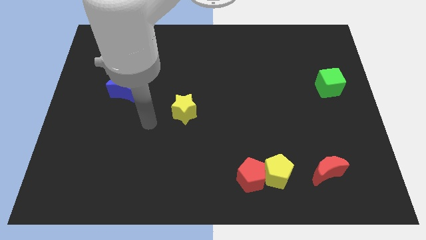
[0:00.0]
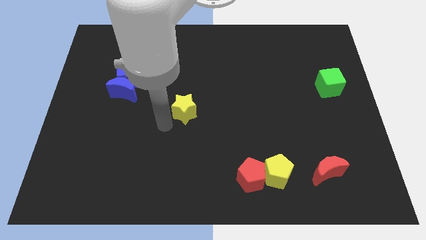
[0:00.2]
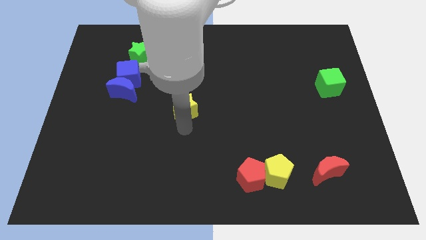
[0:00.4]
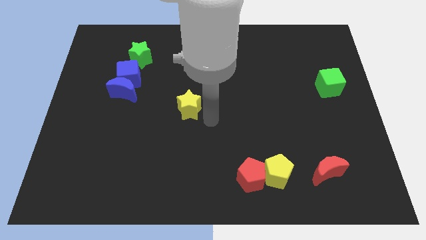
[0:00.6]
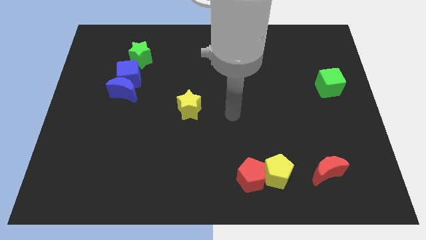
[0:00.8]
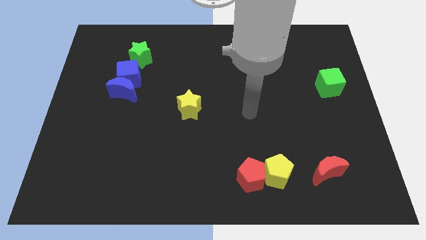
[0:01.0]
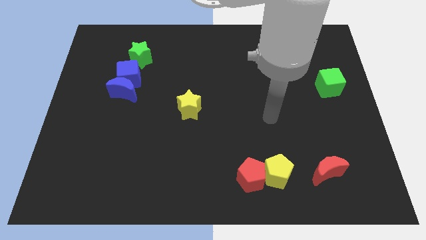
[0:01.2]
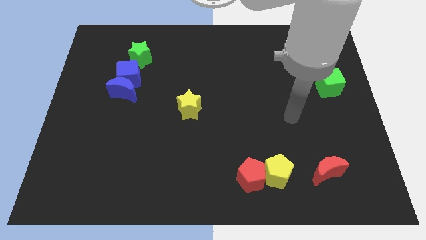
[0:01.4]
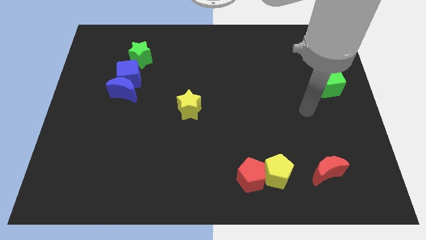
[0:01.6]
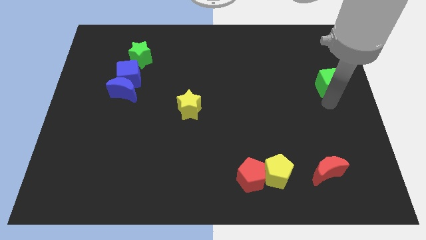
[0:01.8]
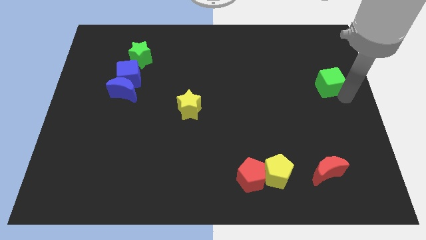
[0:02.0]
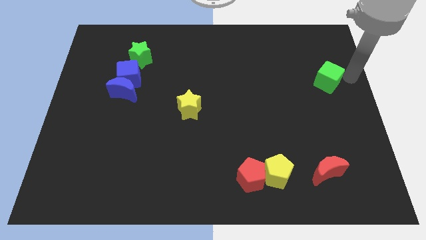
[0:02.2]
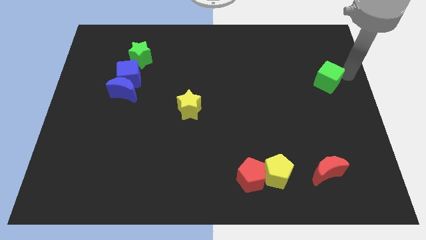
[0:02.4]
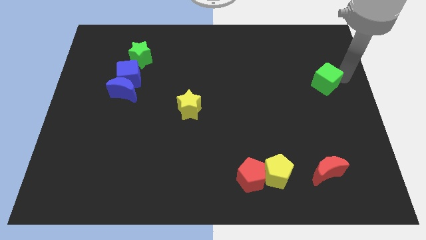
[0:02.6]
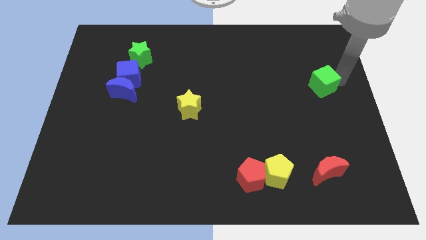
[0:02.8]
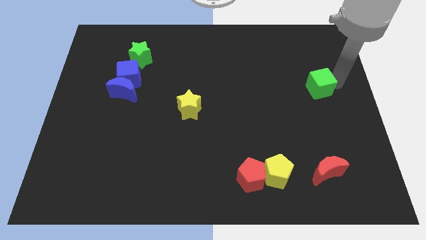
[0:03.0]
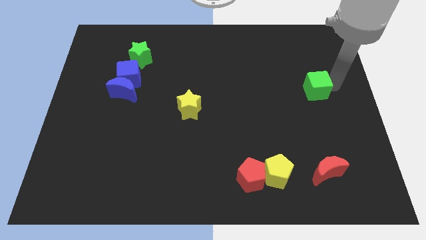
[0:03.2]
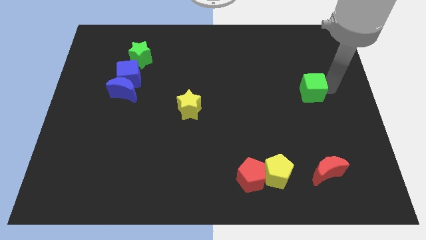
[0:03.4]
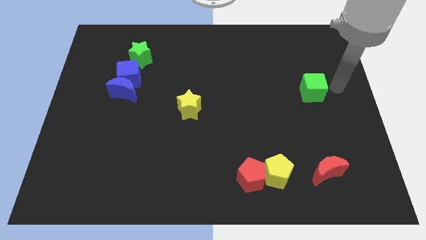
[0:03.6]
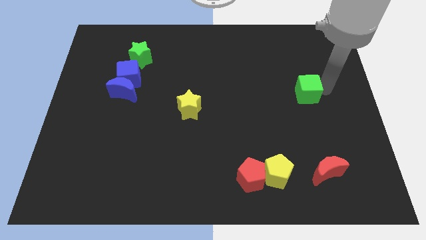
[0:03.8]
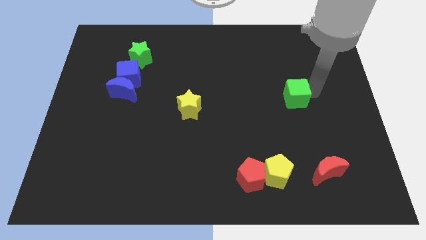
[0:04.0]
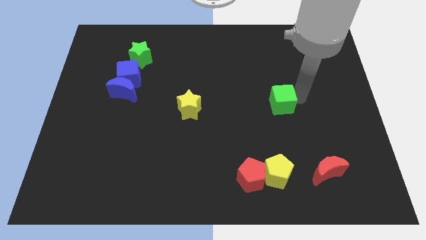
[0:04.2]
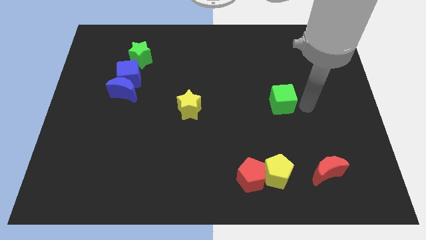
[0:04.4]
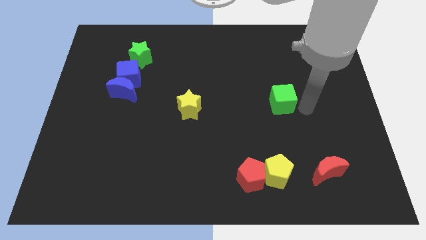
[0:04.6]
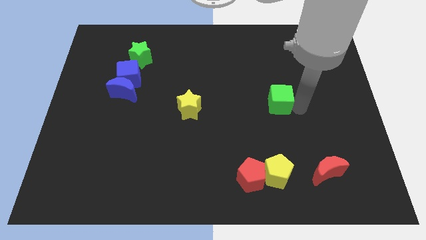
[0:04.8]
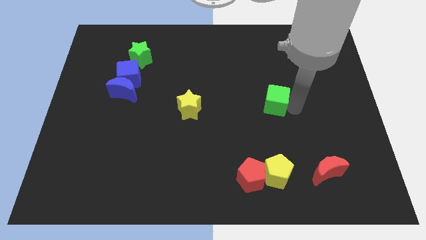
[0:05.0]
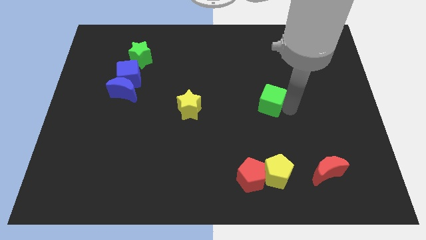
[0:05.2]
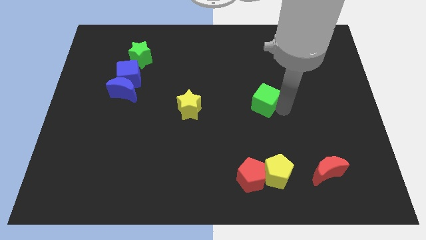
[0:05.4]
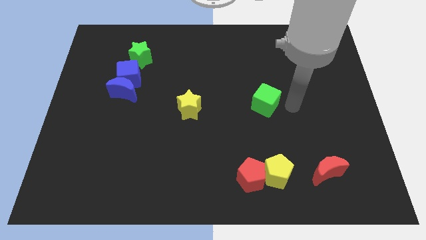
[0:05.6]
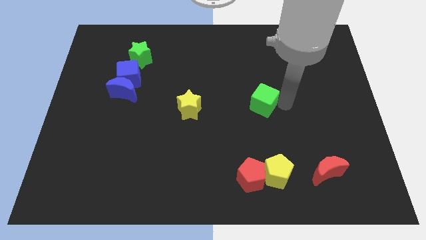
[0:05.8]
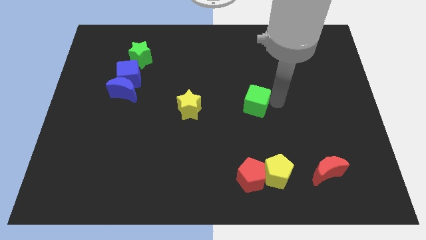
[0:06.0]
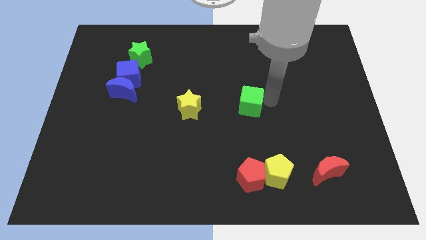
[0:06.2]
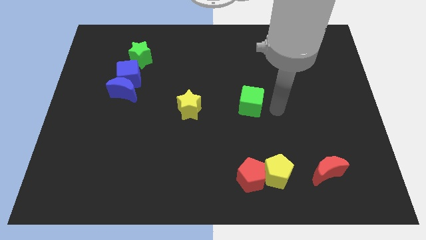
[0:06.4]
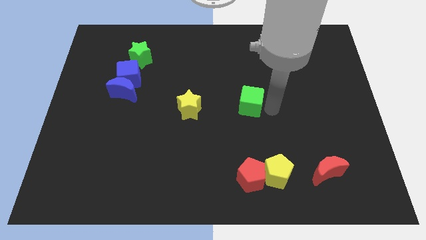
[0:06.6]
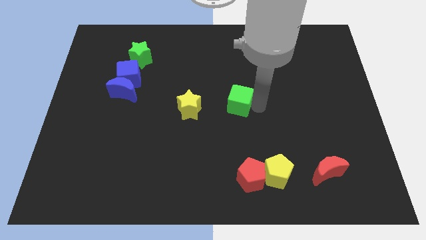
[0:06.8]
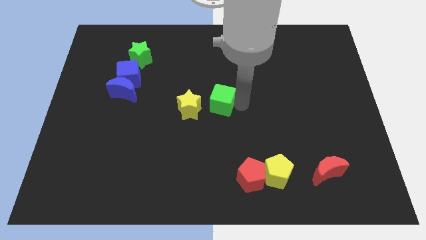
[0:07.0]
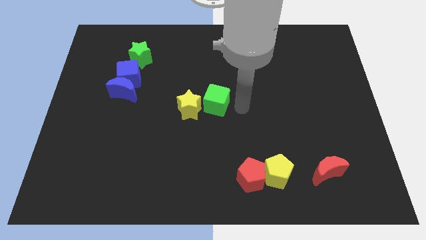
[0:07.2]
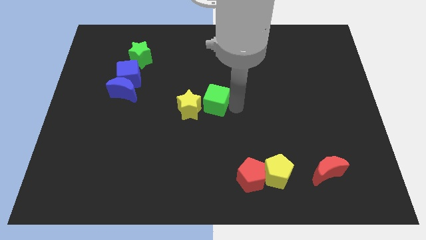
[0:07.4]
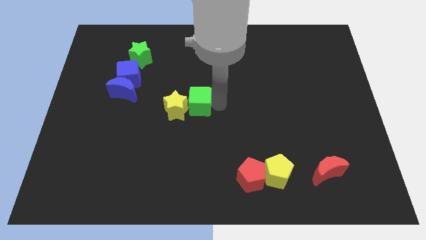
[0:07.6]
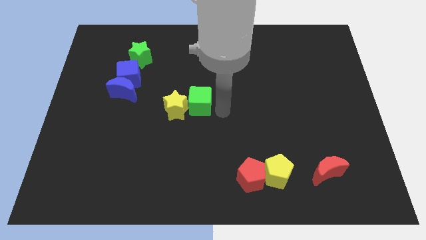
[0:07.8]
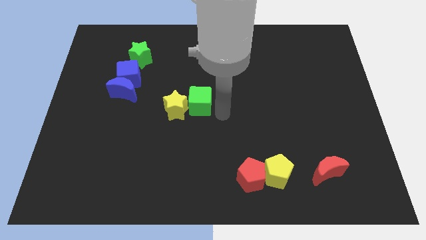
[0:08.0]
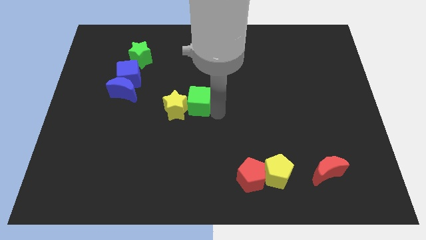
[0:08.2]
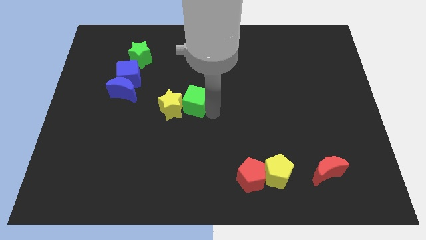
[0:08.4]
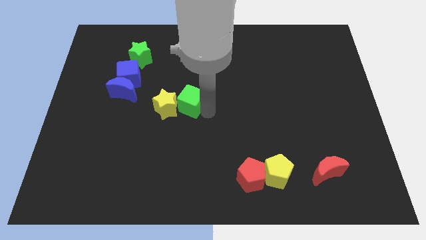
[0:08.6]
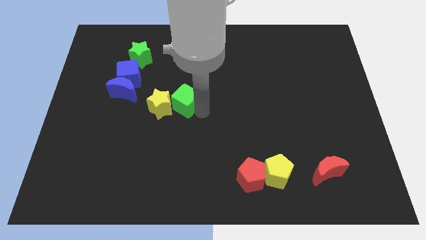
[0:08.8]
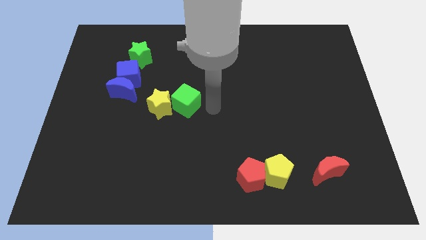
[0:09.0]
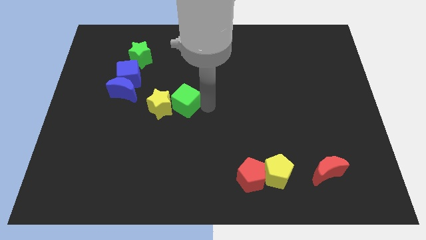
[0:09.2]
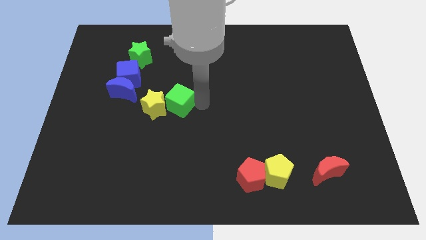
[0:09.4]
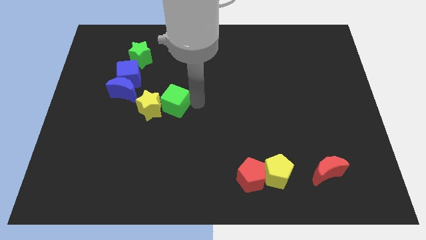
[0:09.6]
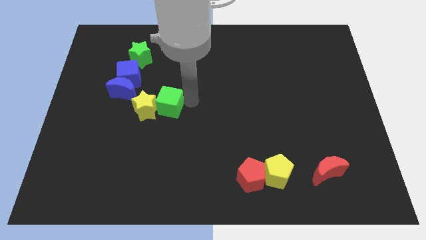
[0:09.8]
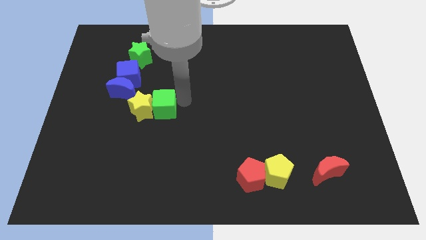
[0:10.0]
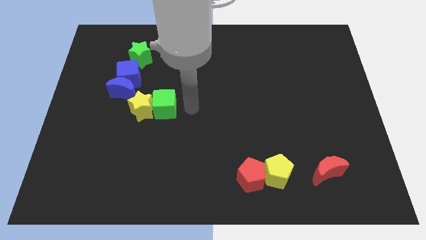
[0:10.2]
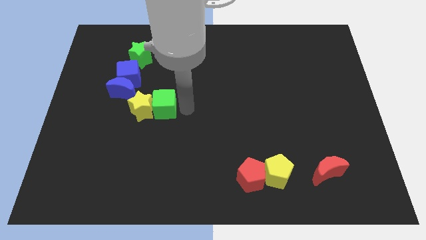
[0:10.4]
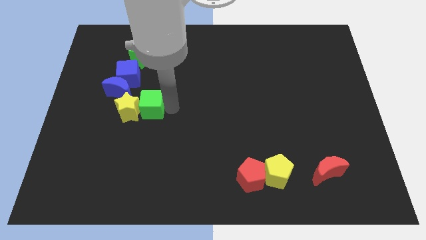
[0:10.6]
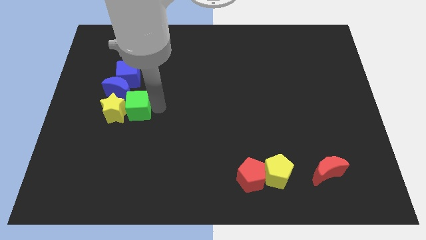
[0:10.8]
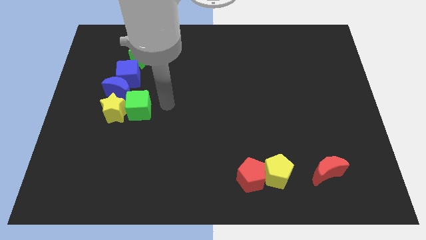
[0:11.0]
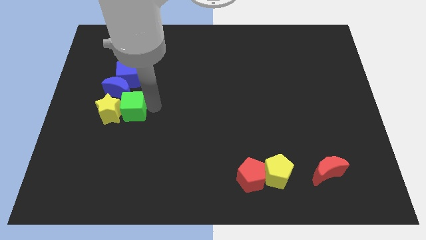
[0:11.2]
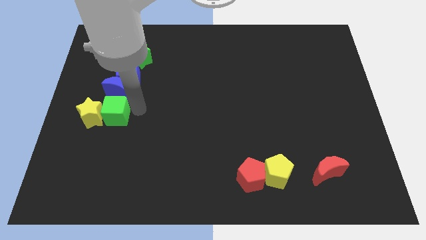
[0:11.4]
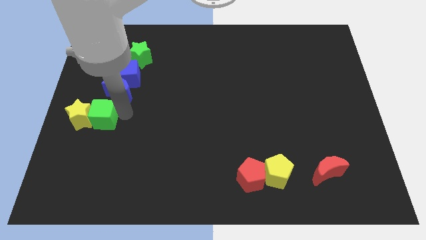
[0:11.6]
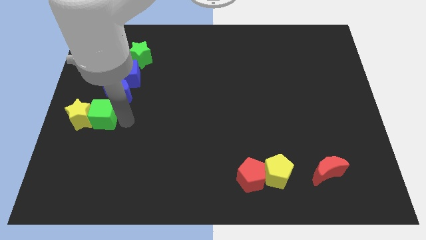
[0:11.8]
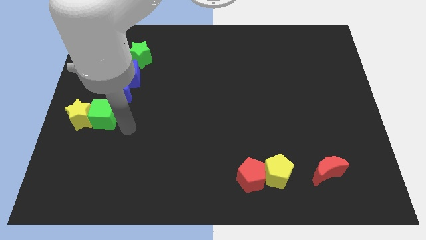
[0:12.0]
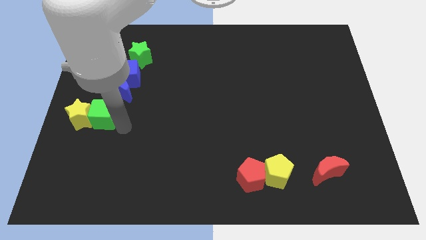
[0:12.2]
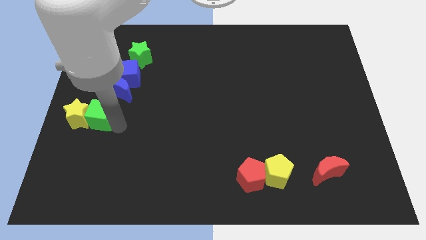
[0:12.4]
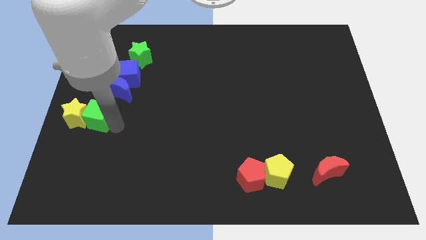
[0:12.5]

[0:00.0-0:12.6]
slide the green cube to the left side of the board
